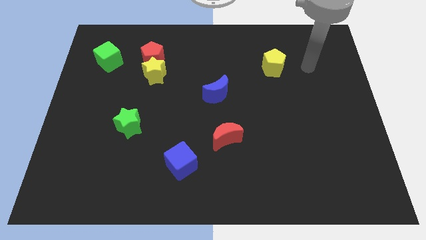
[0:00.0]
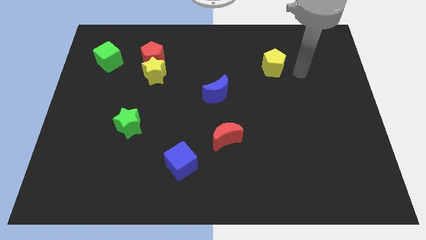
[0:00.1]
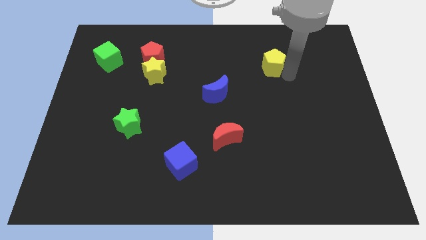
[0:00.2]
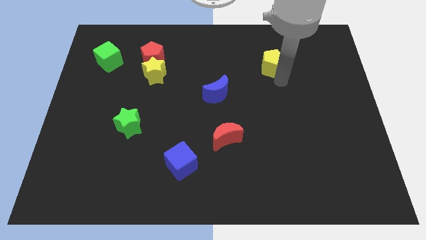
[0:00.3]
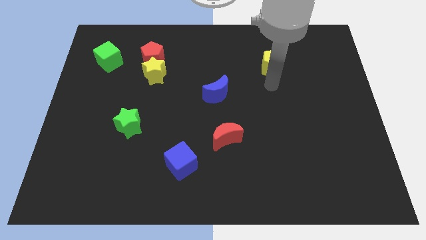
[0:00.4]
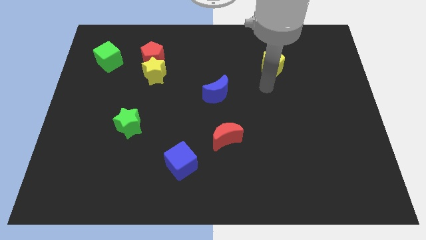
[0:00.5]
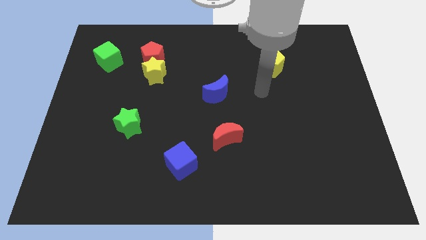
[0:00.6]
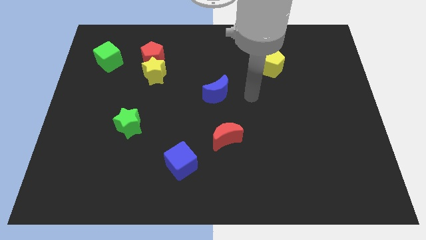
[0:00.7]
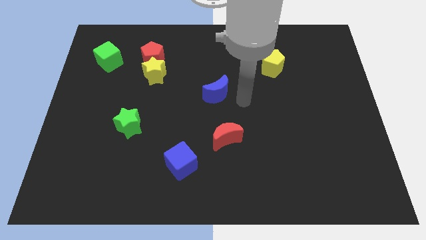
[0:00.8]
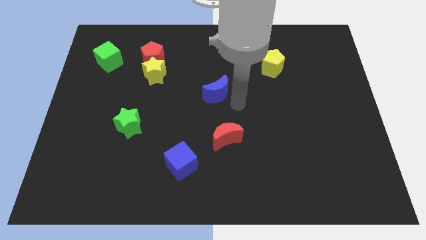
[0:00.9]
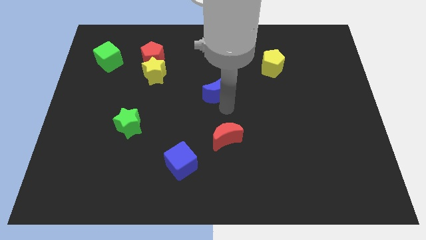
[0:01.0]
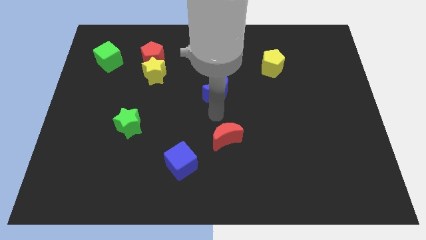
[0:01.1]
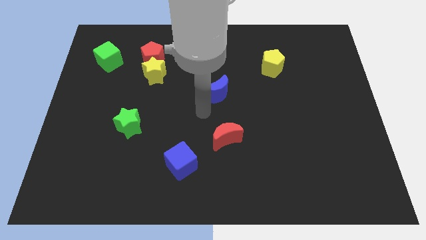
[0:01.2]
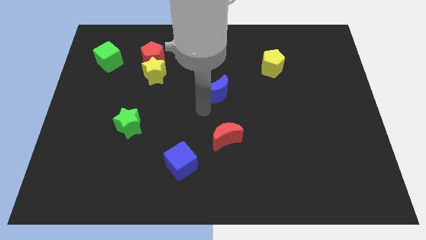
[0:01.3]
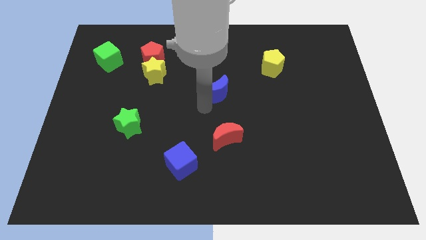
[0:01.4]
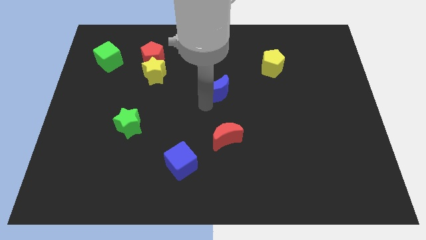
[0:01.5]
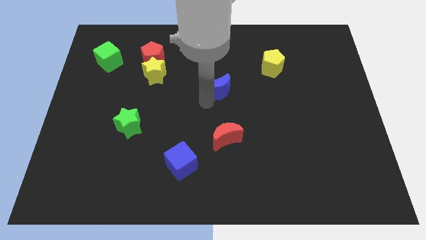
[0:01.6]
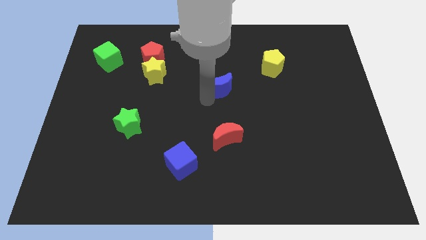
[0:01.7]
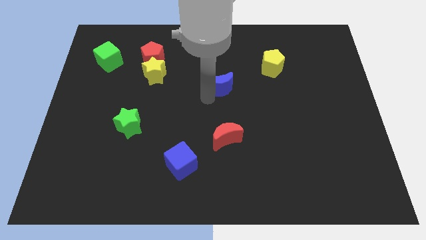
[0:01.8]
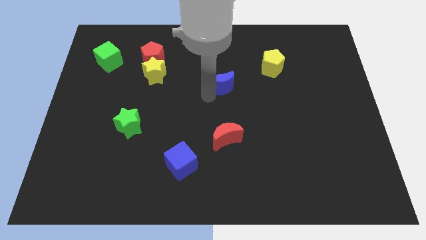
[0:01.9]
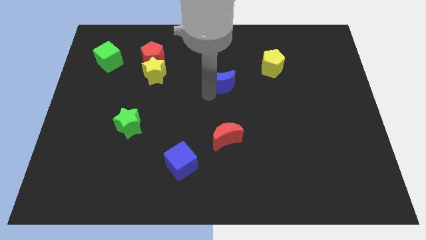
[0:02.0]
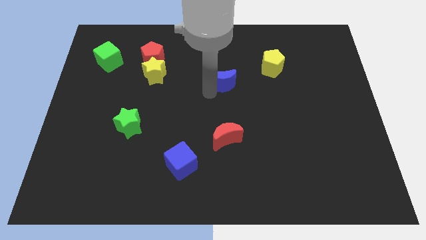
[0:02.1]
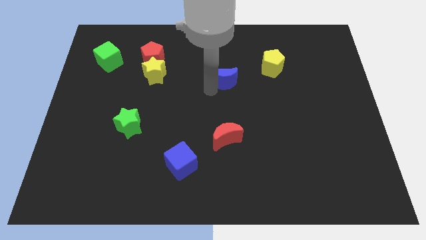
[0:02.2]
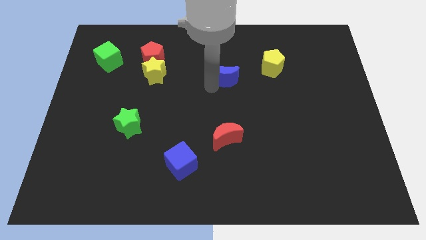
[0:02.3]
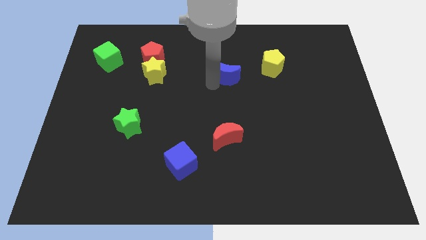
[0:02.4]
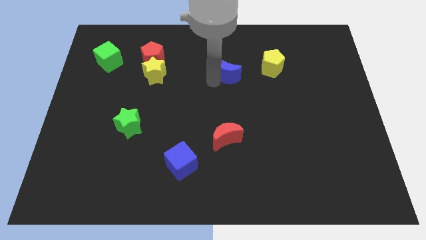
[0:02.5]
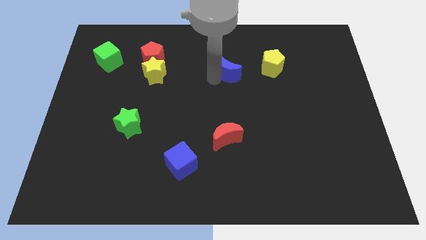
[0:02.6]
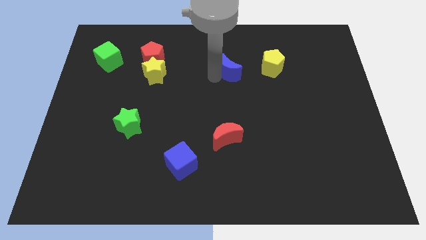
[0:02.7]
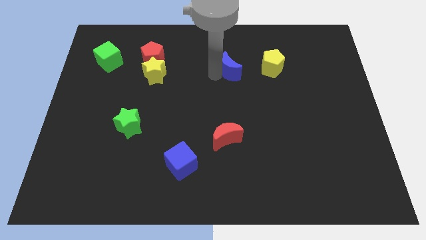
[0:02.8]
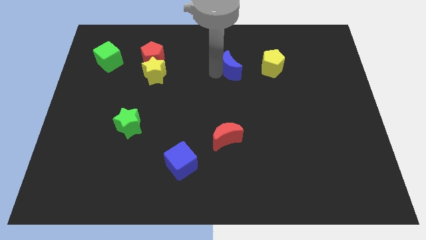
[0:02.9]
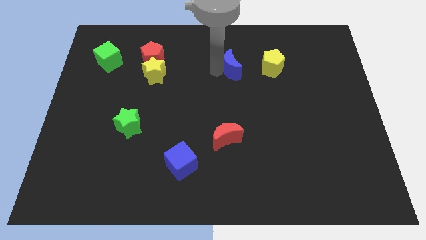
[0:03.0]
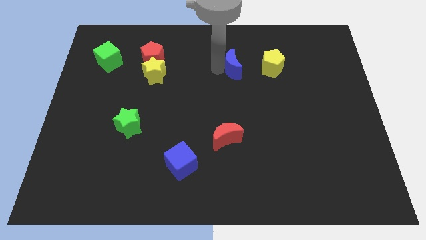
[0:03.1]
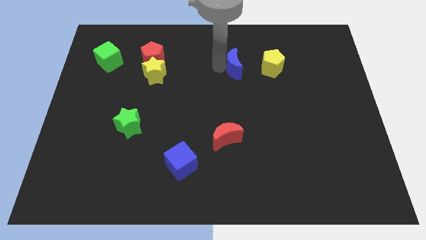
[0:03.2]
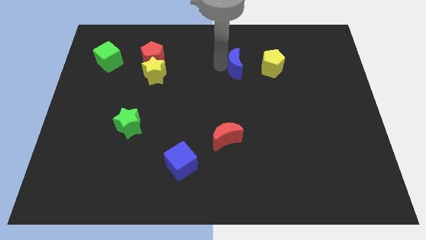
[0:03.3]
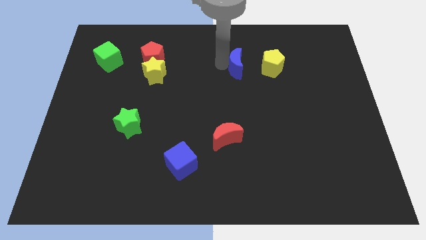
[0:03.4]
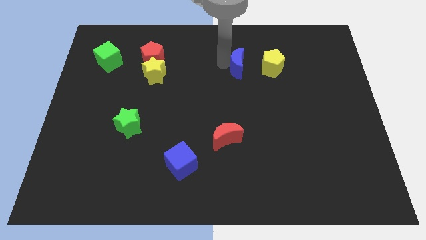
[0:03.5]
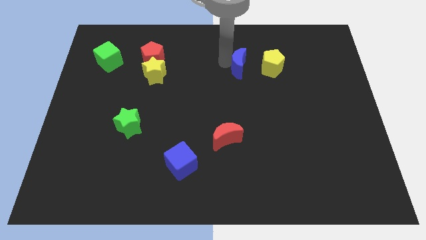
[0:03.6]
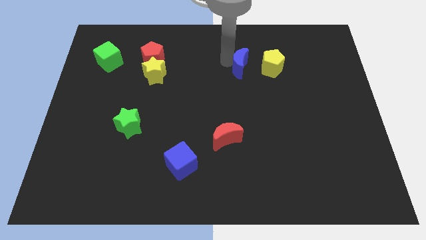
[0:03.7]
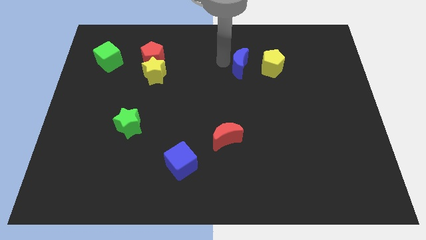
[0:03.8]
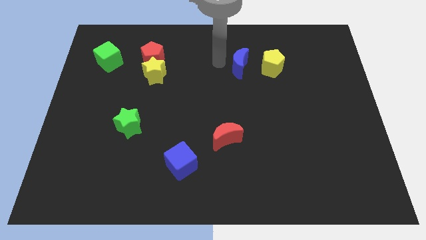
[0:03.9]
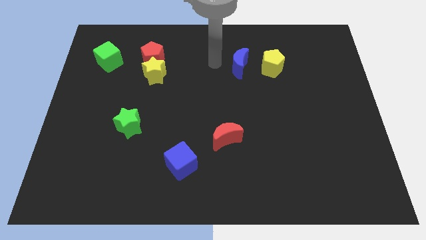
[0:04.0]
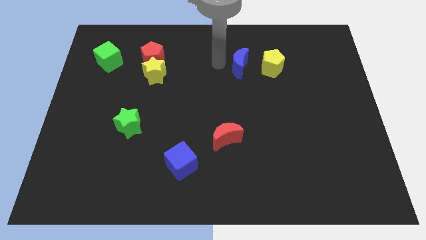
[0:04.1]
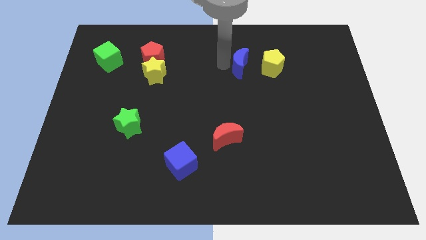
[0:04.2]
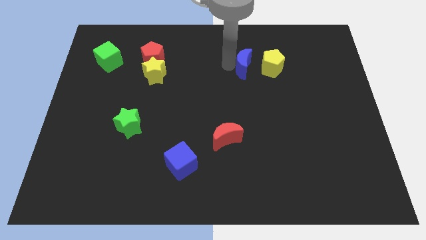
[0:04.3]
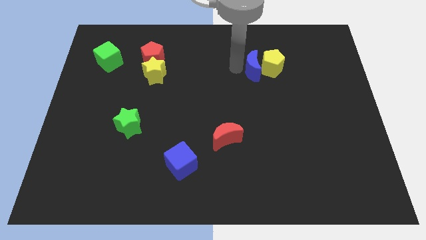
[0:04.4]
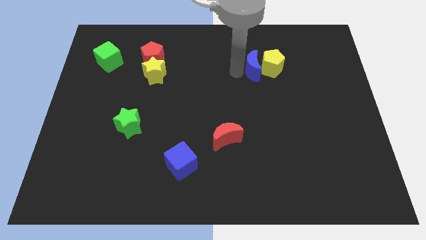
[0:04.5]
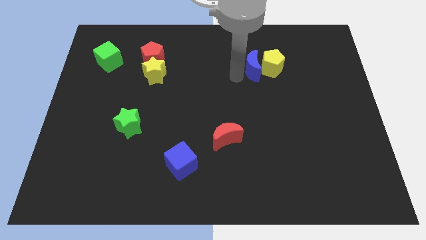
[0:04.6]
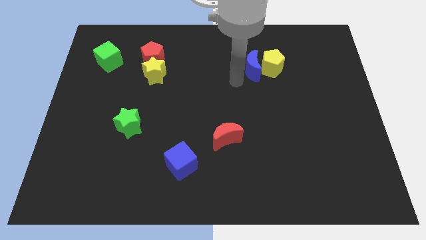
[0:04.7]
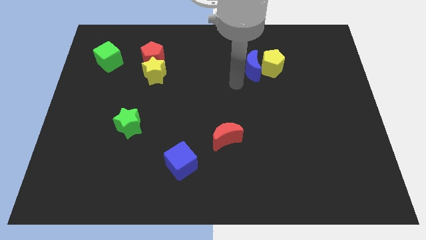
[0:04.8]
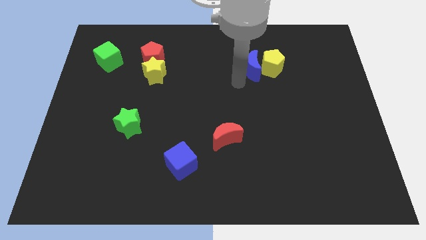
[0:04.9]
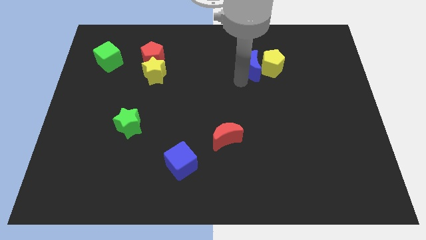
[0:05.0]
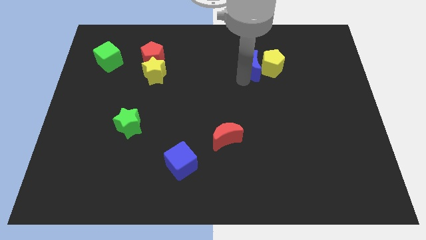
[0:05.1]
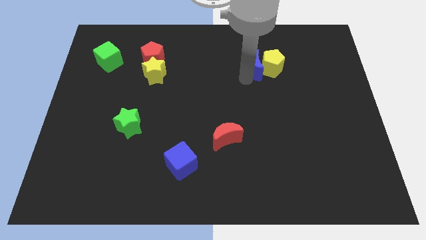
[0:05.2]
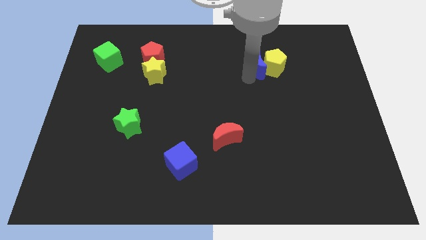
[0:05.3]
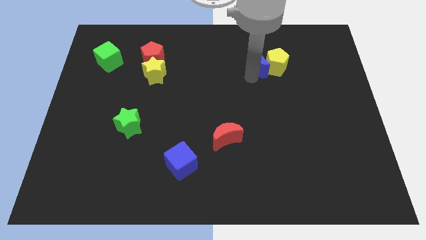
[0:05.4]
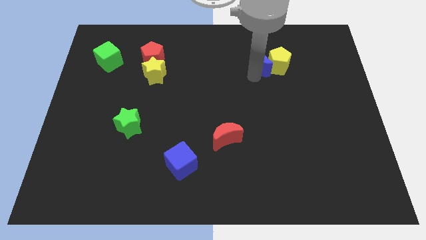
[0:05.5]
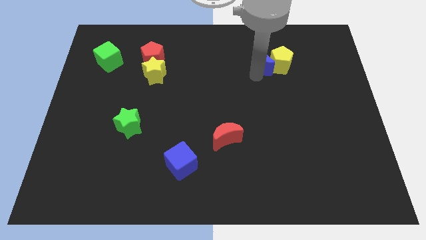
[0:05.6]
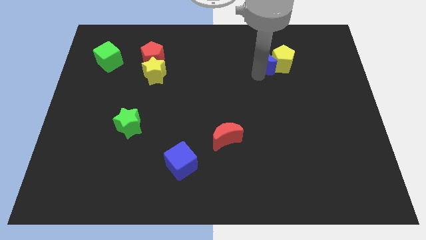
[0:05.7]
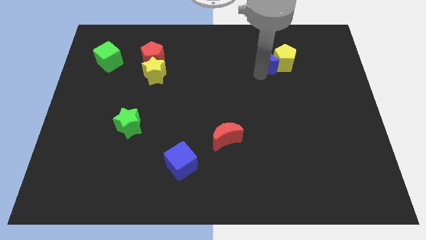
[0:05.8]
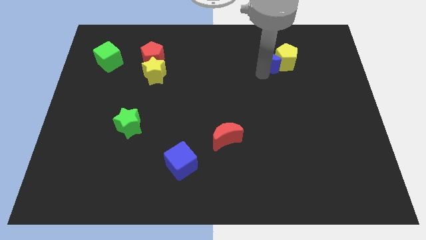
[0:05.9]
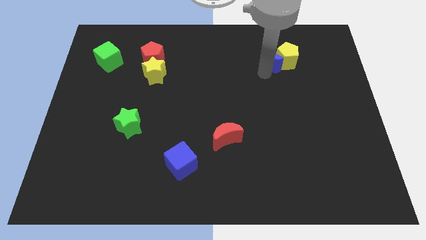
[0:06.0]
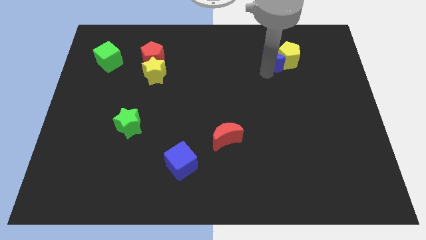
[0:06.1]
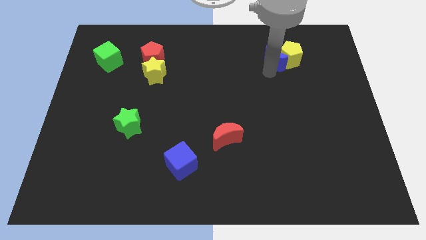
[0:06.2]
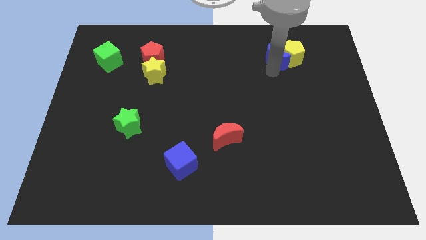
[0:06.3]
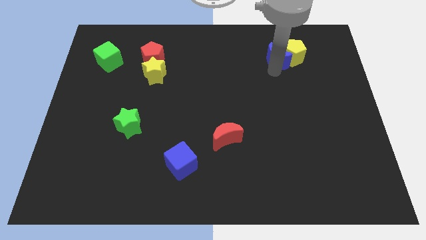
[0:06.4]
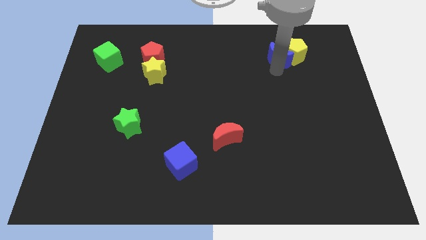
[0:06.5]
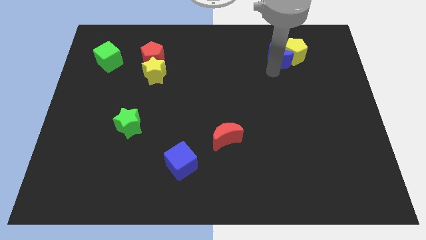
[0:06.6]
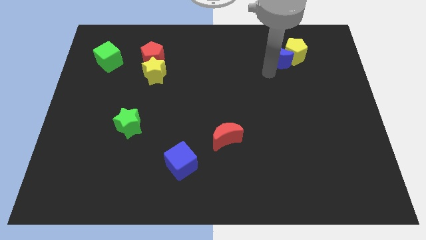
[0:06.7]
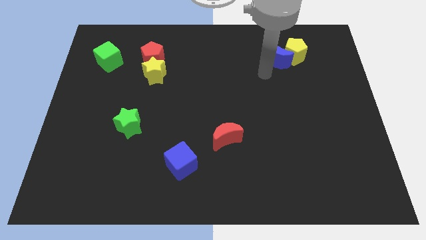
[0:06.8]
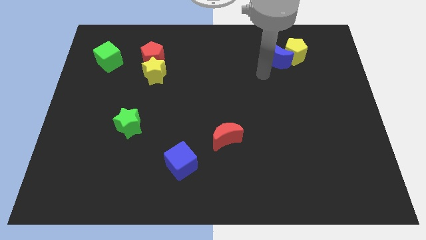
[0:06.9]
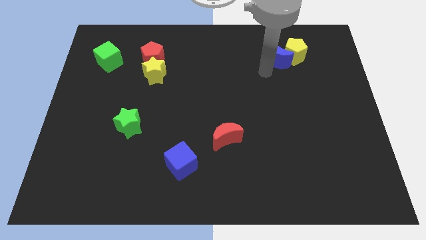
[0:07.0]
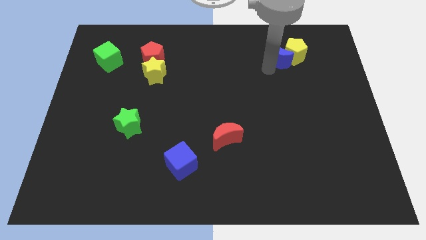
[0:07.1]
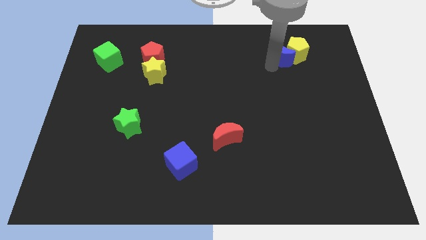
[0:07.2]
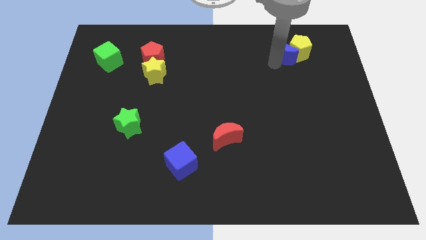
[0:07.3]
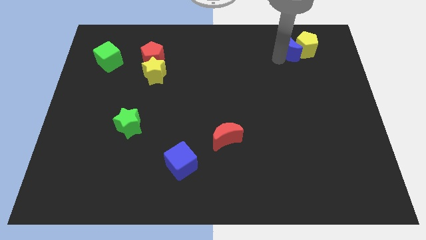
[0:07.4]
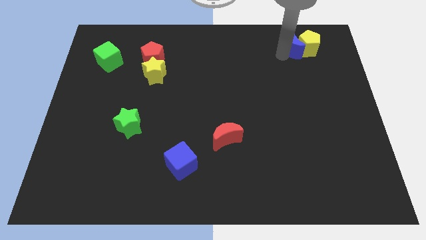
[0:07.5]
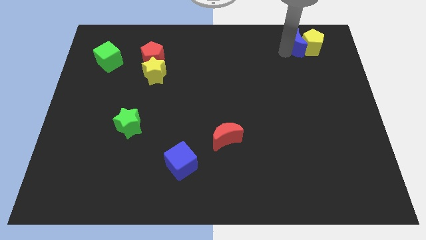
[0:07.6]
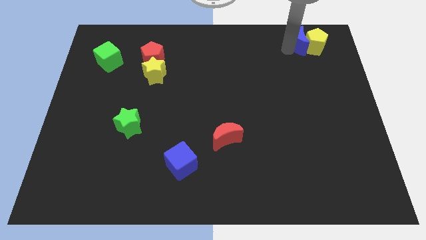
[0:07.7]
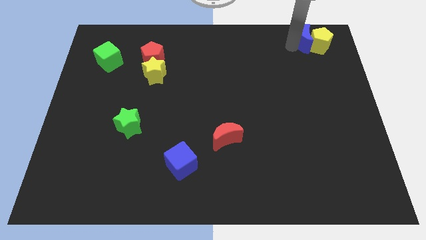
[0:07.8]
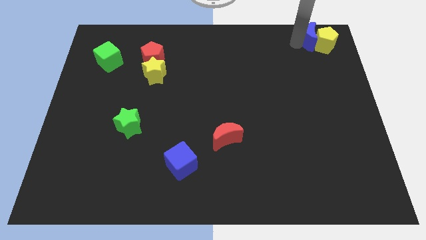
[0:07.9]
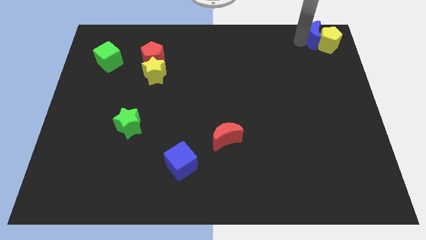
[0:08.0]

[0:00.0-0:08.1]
put the blue moon to the upper right corner
